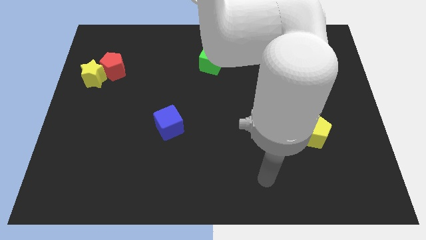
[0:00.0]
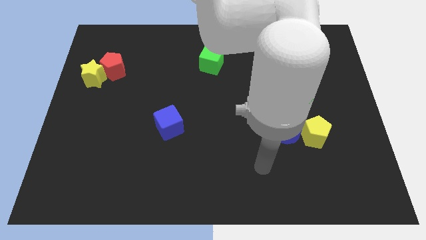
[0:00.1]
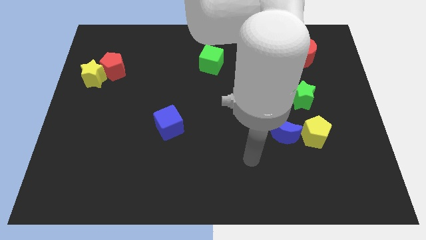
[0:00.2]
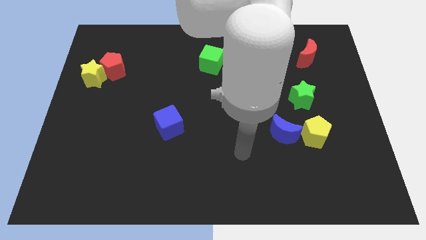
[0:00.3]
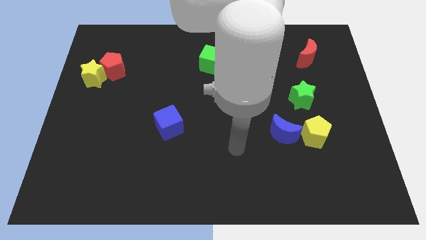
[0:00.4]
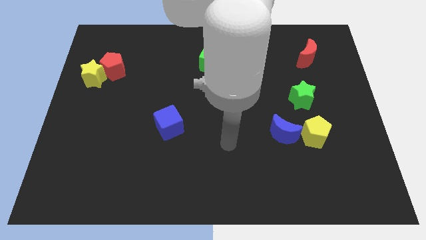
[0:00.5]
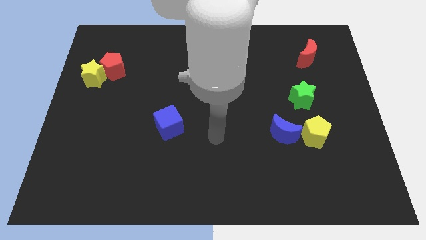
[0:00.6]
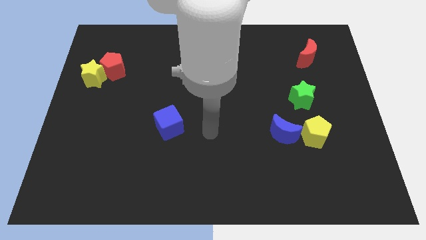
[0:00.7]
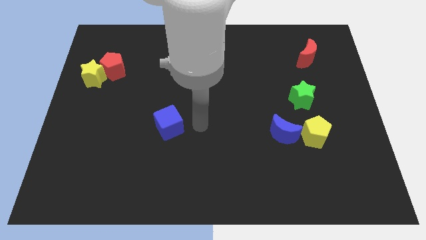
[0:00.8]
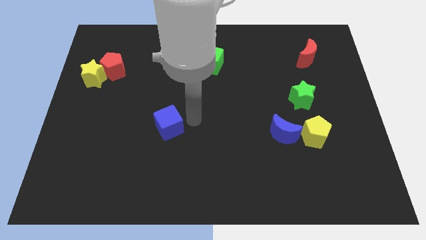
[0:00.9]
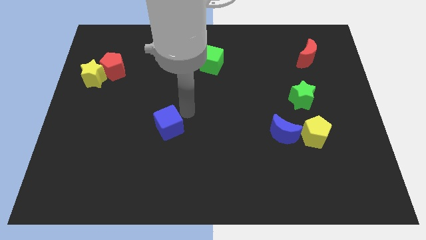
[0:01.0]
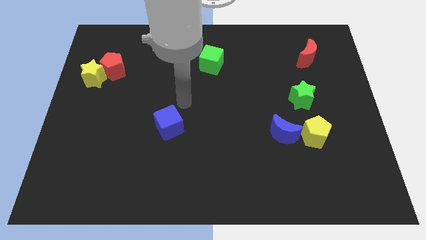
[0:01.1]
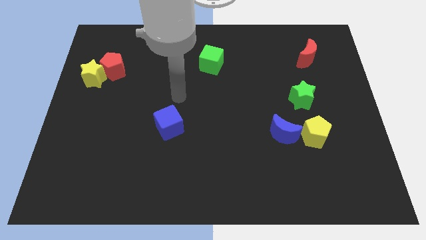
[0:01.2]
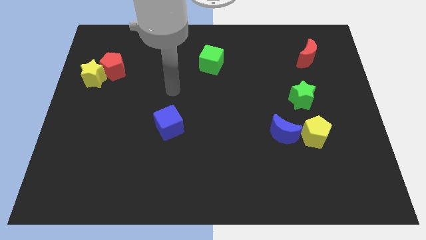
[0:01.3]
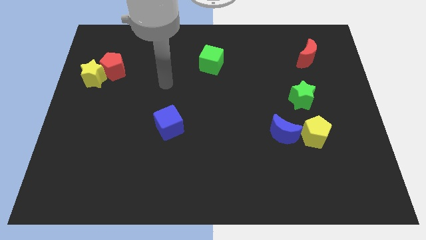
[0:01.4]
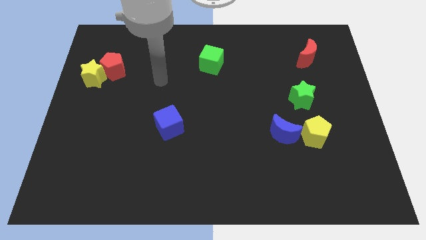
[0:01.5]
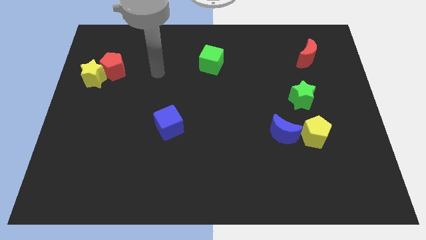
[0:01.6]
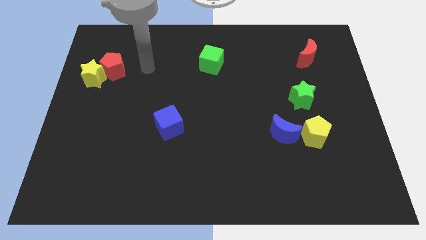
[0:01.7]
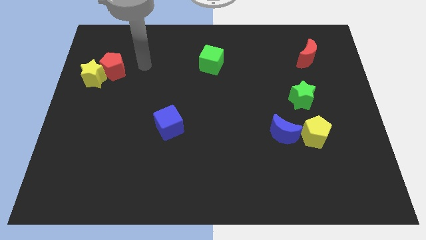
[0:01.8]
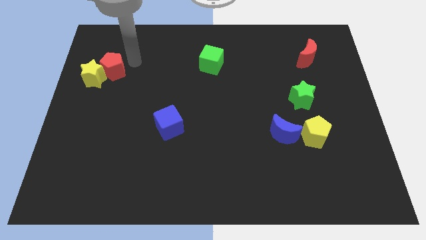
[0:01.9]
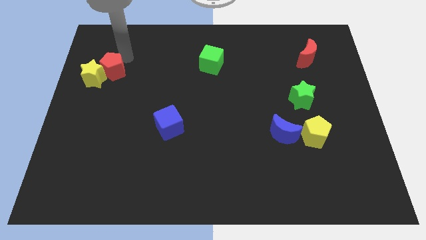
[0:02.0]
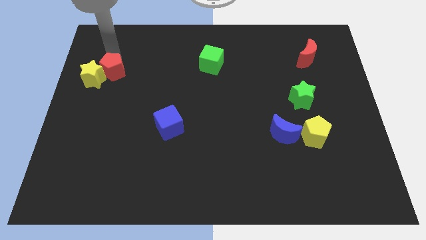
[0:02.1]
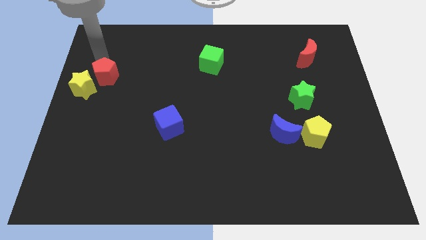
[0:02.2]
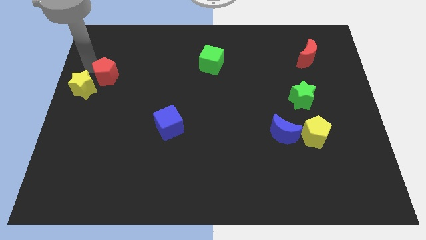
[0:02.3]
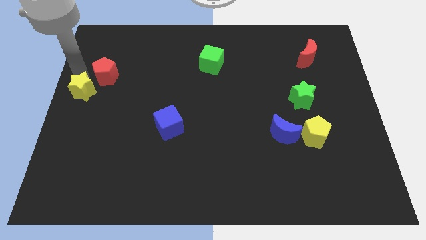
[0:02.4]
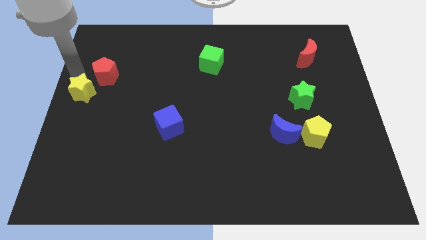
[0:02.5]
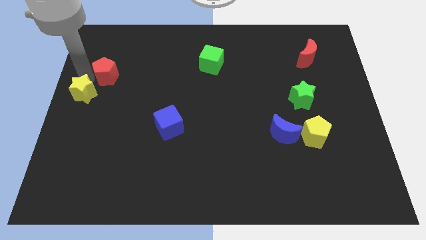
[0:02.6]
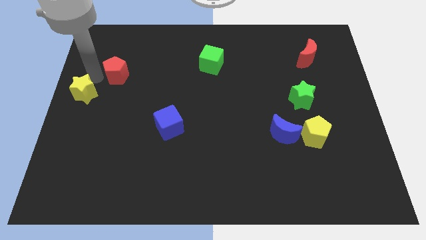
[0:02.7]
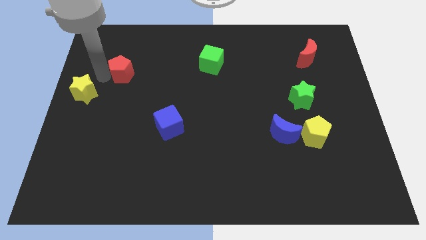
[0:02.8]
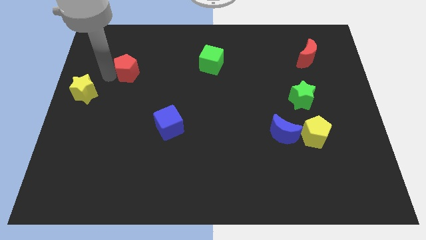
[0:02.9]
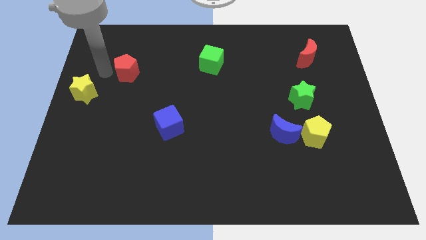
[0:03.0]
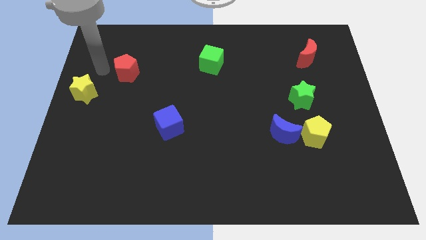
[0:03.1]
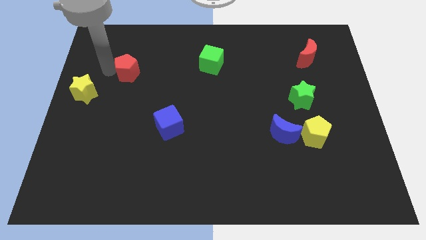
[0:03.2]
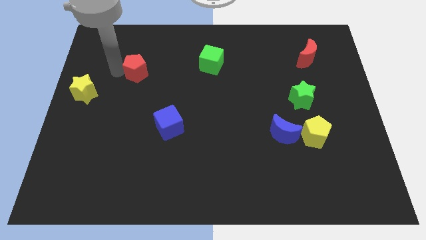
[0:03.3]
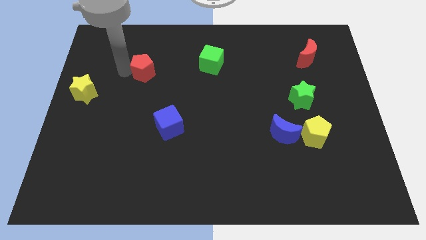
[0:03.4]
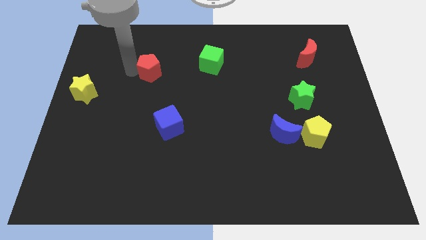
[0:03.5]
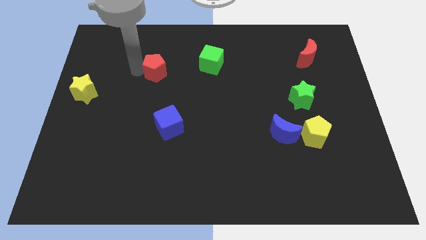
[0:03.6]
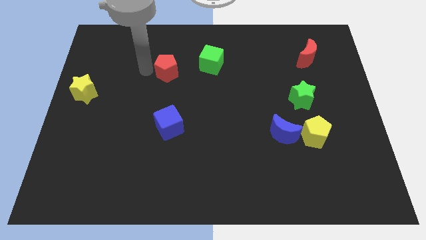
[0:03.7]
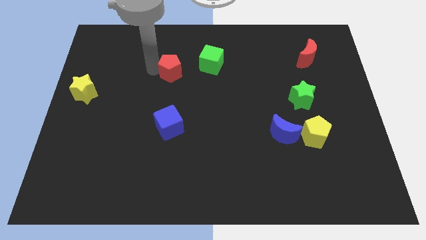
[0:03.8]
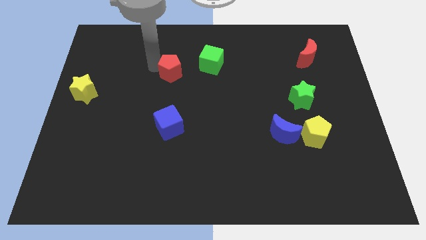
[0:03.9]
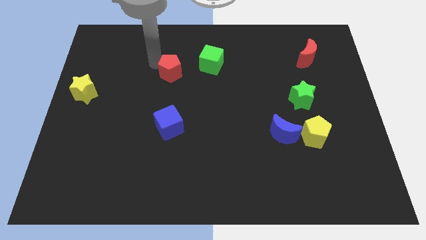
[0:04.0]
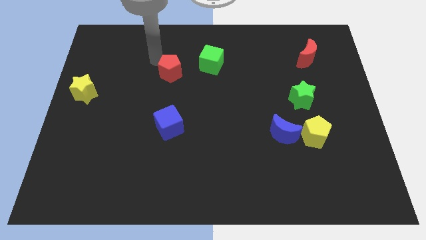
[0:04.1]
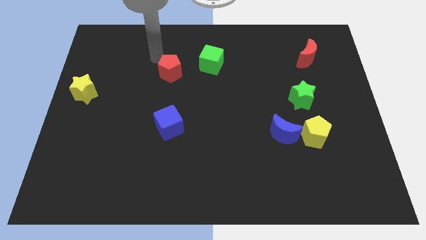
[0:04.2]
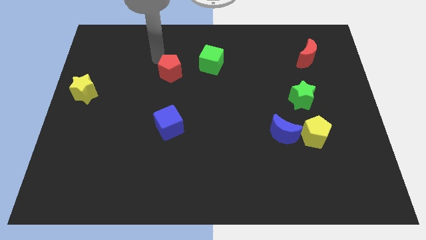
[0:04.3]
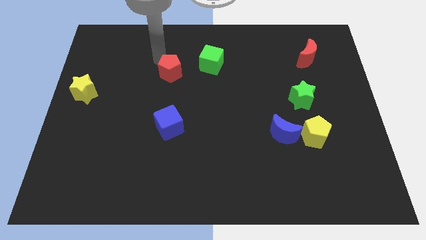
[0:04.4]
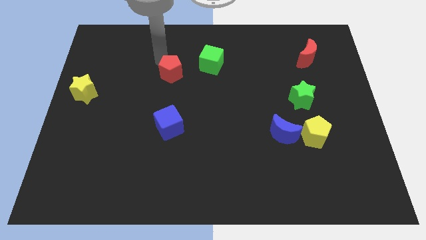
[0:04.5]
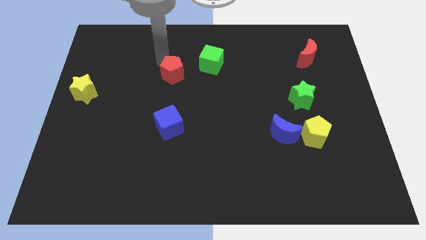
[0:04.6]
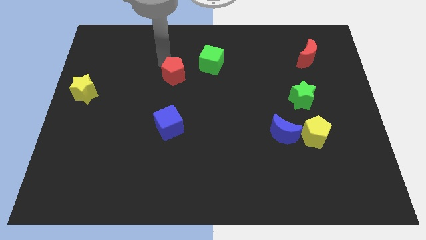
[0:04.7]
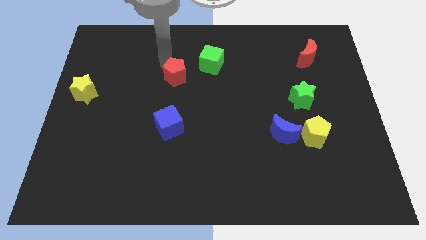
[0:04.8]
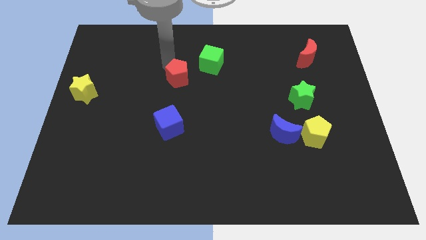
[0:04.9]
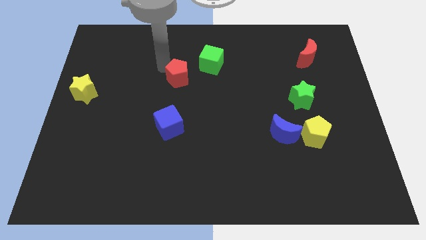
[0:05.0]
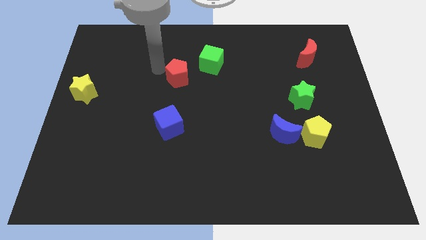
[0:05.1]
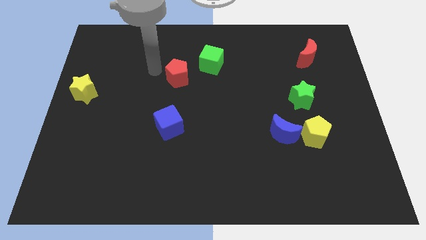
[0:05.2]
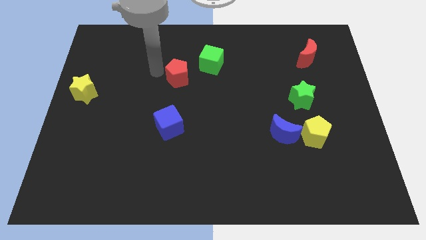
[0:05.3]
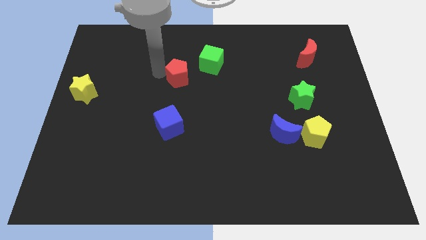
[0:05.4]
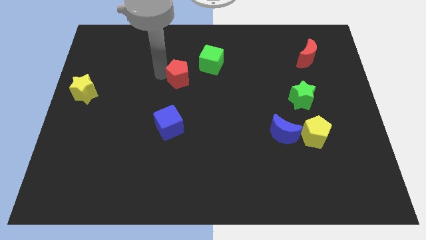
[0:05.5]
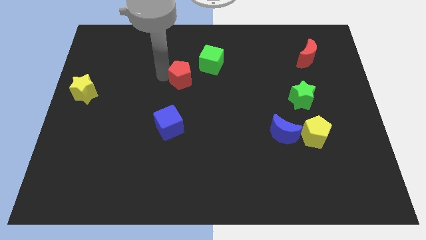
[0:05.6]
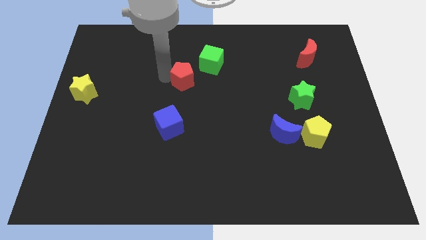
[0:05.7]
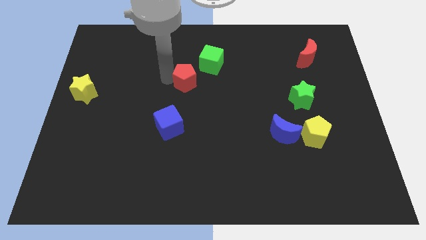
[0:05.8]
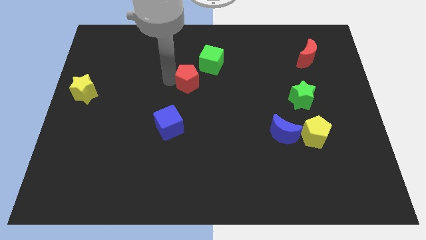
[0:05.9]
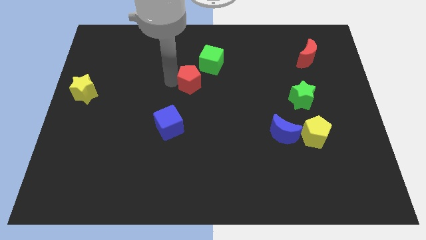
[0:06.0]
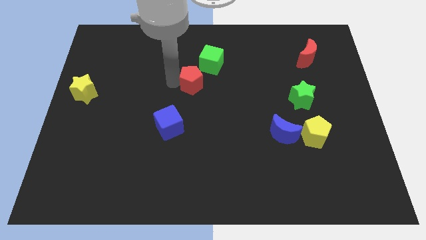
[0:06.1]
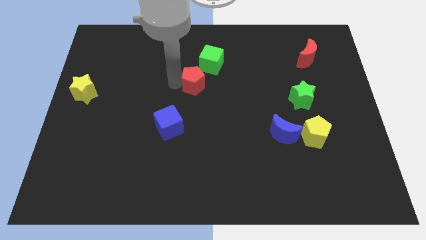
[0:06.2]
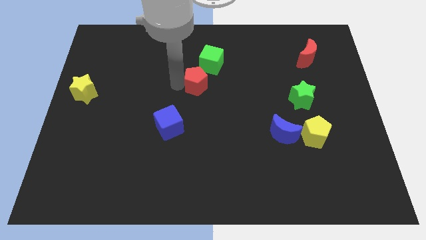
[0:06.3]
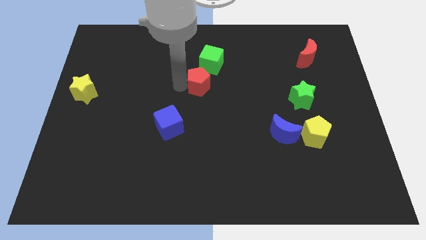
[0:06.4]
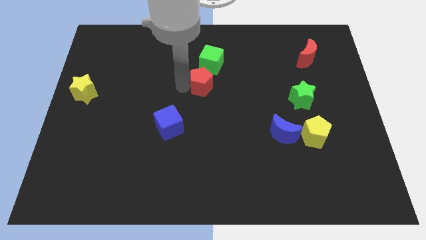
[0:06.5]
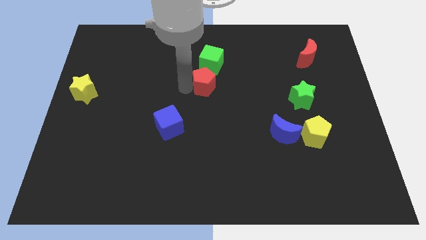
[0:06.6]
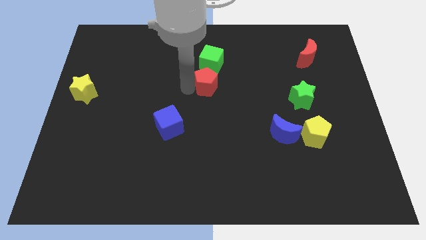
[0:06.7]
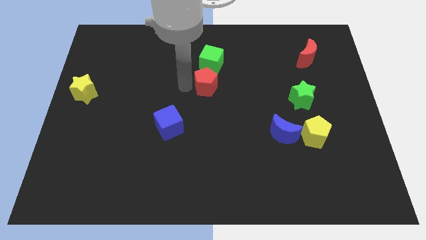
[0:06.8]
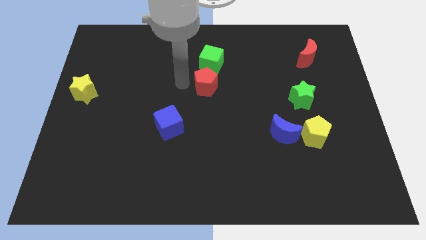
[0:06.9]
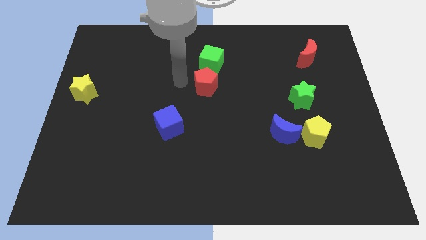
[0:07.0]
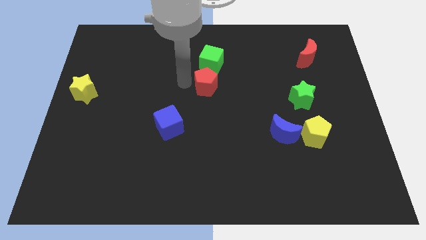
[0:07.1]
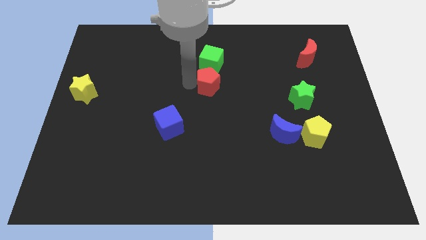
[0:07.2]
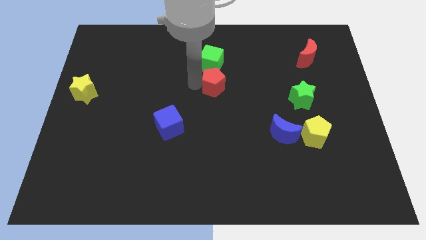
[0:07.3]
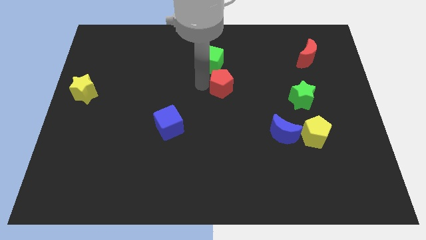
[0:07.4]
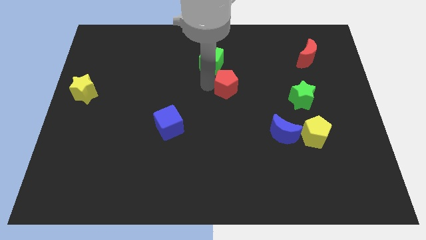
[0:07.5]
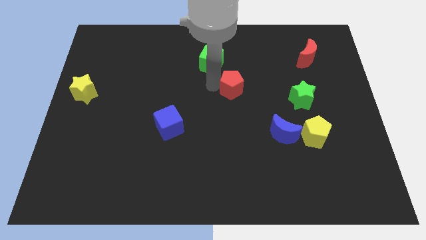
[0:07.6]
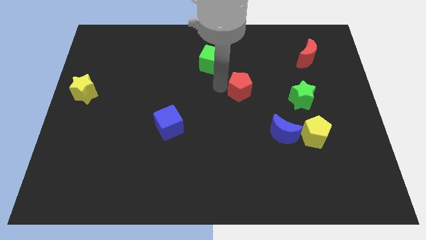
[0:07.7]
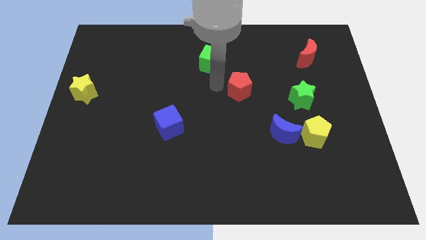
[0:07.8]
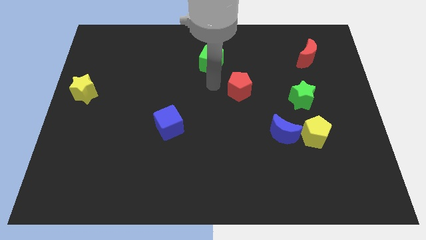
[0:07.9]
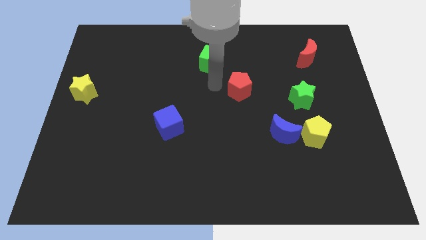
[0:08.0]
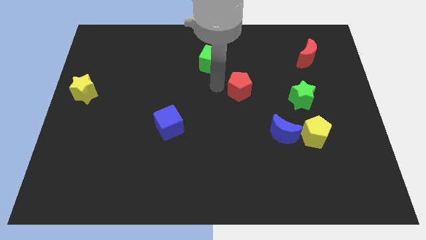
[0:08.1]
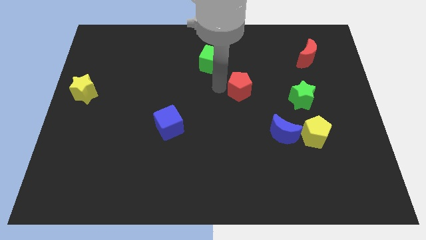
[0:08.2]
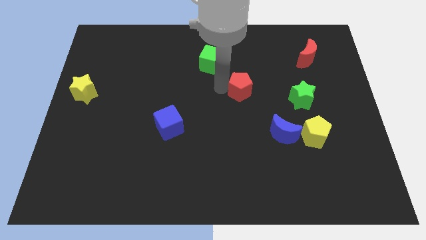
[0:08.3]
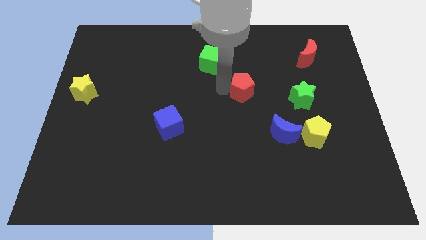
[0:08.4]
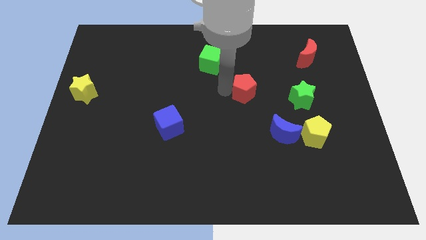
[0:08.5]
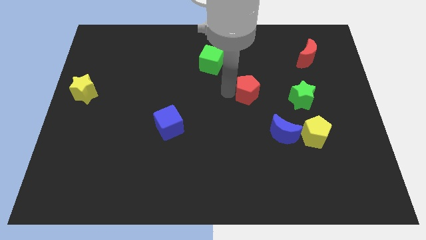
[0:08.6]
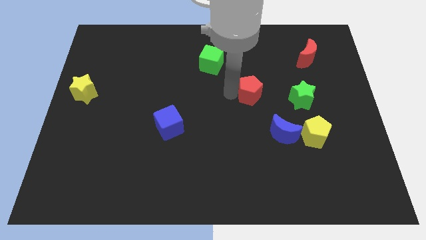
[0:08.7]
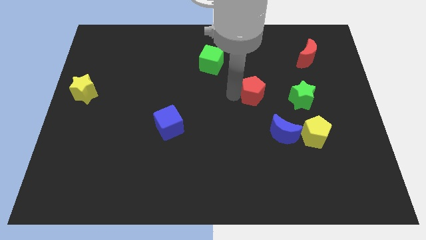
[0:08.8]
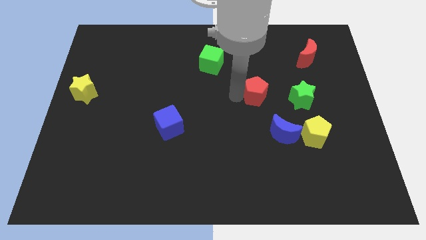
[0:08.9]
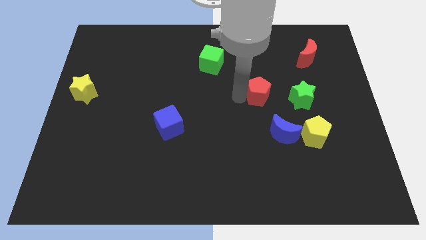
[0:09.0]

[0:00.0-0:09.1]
move the red pentagon to the top of the blue moon
